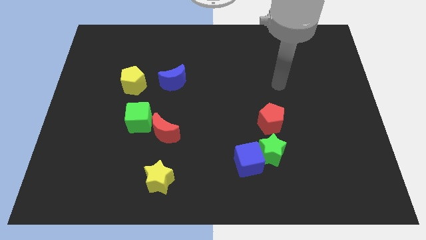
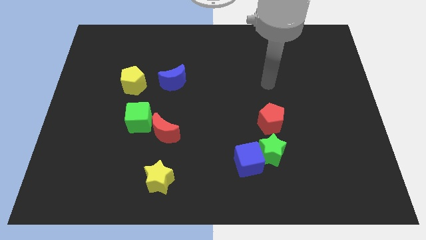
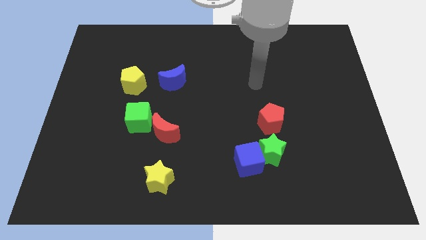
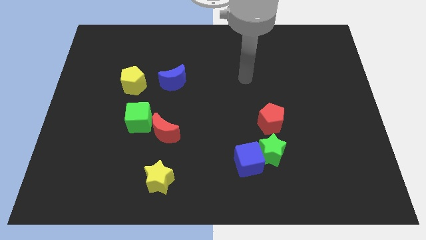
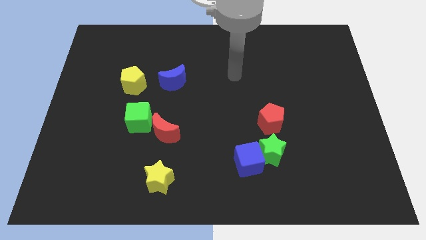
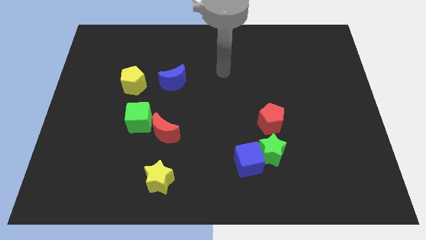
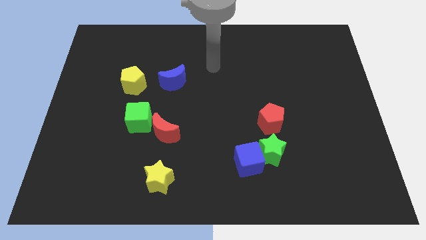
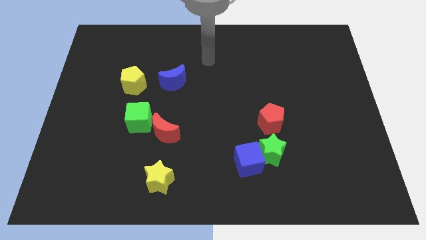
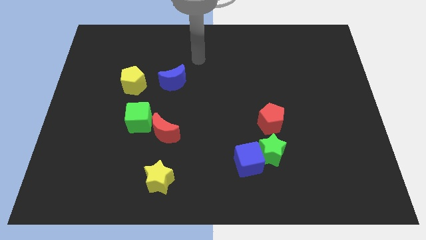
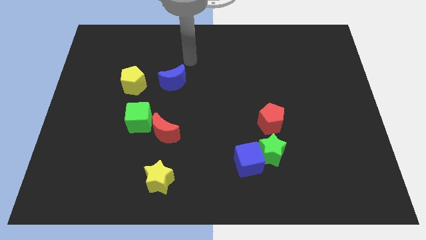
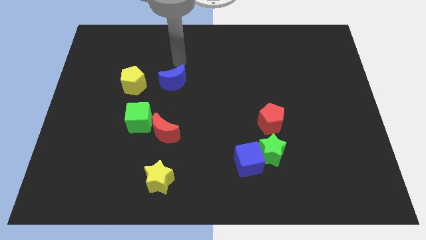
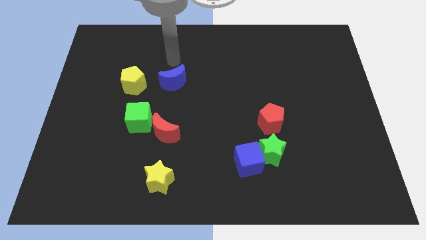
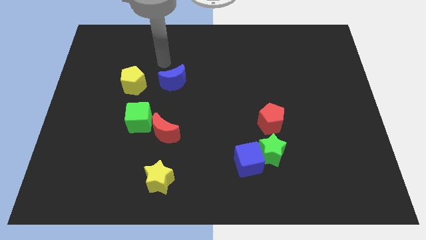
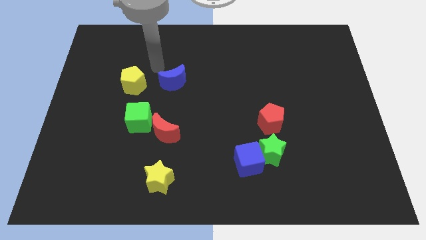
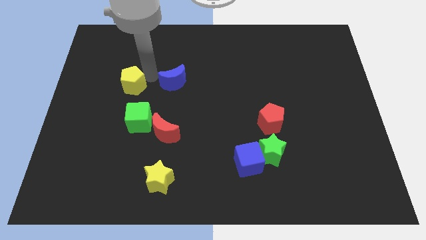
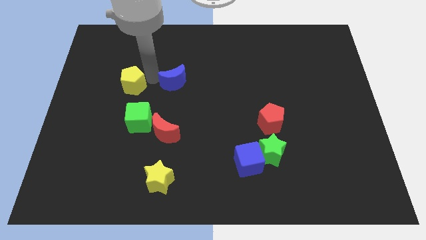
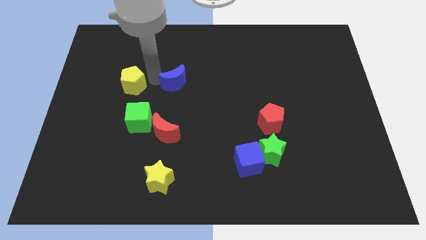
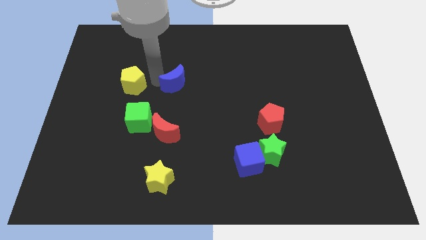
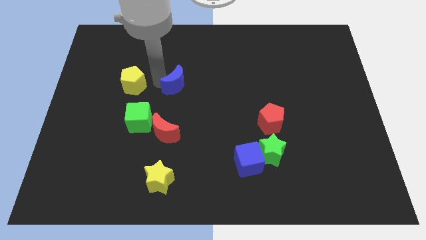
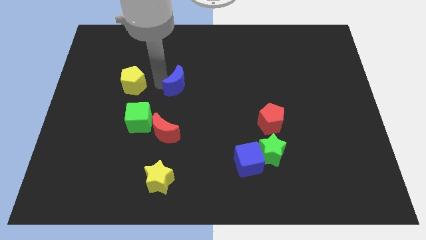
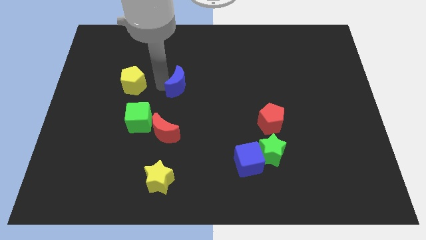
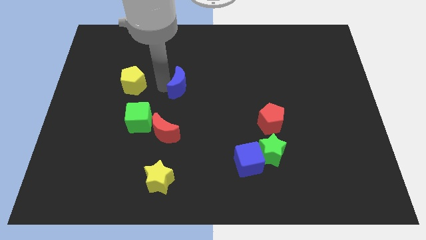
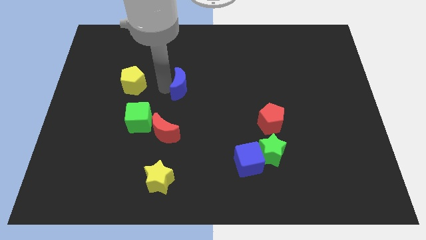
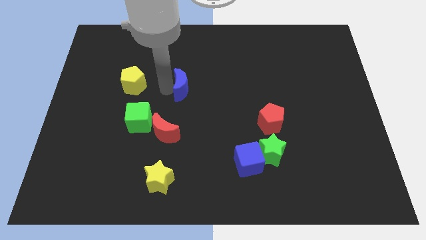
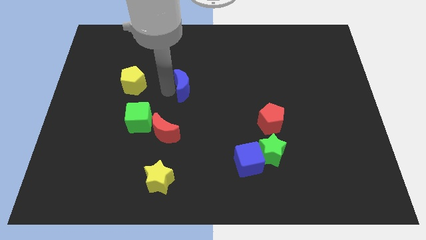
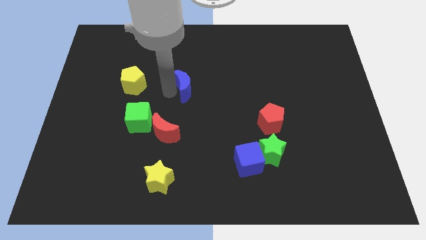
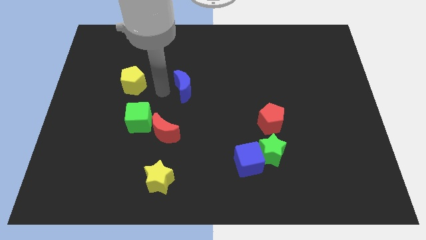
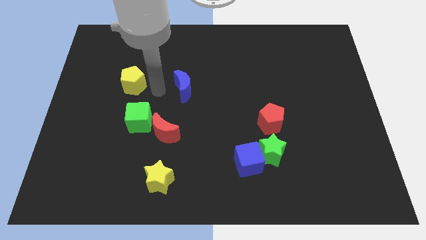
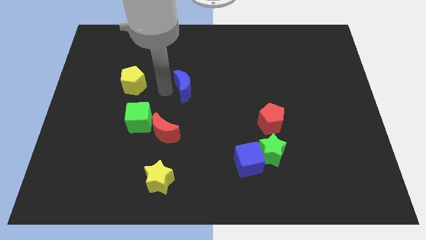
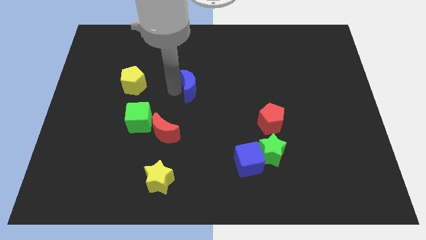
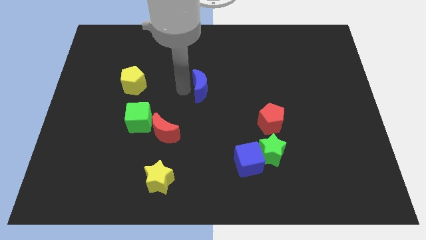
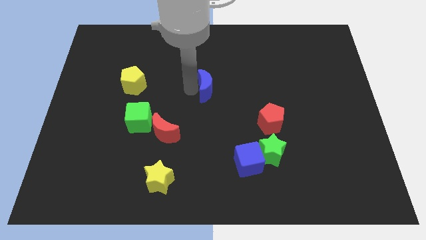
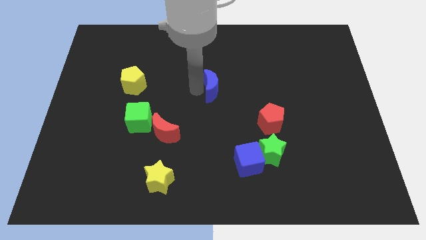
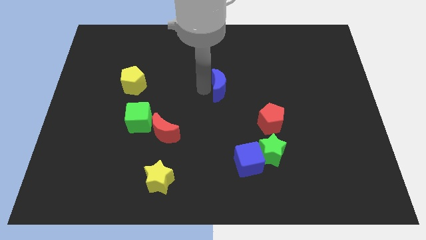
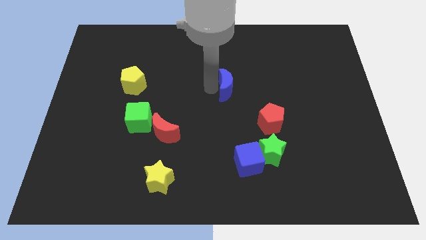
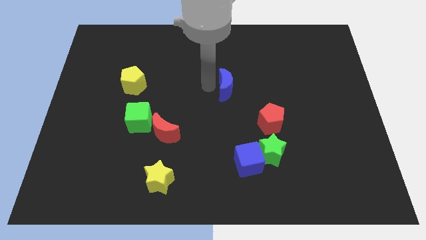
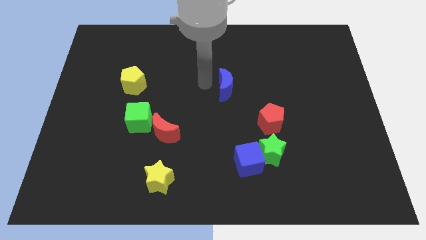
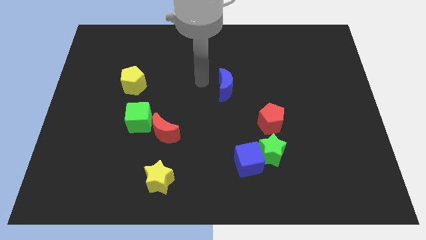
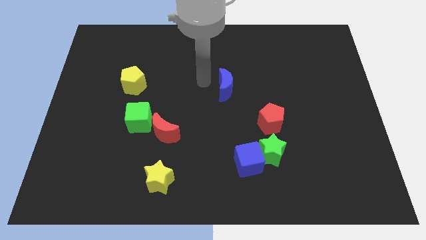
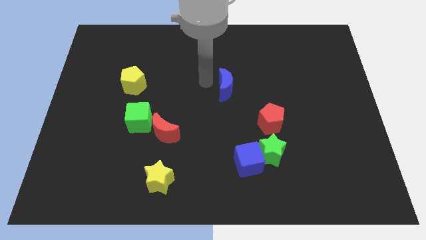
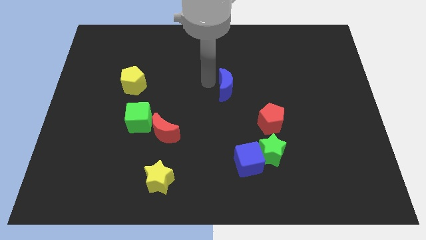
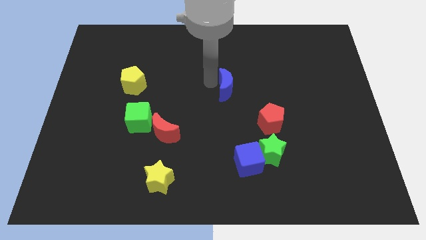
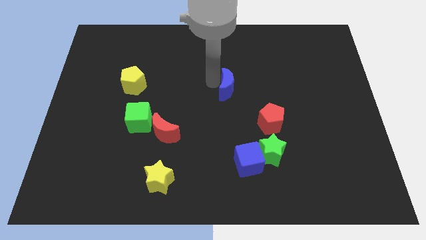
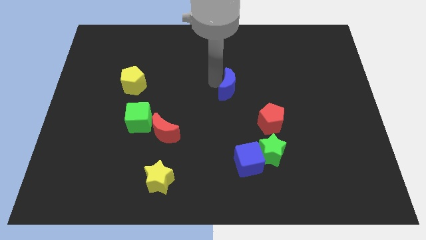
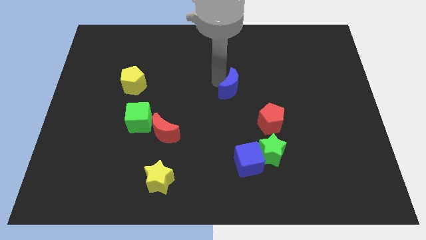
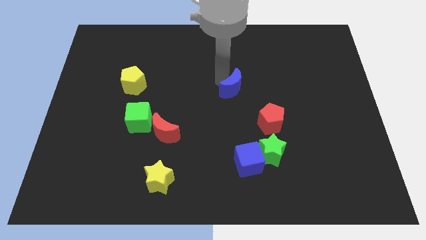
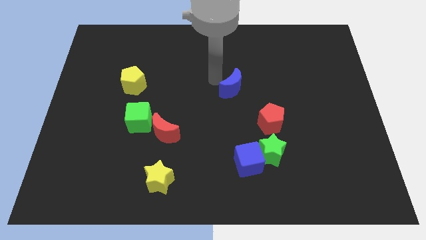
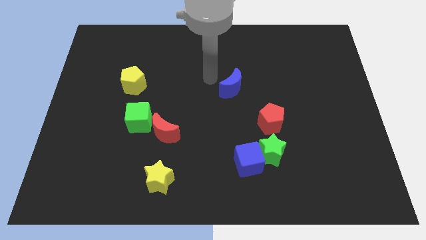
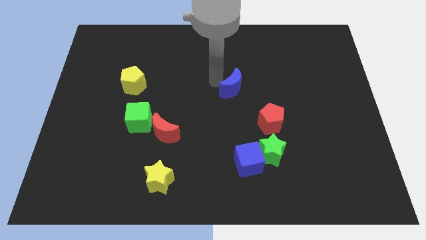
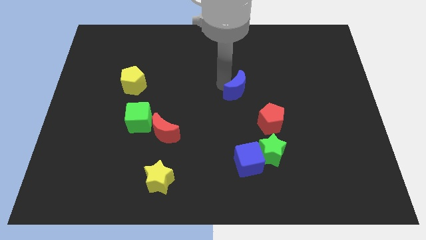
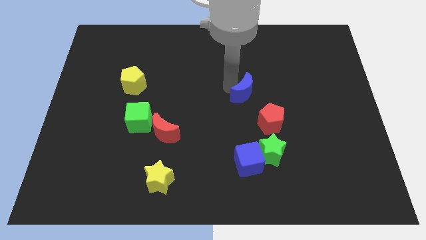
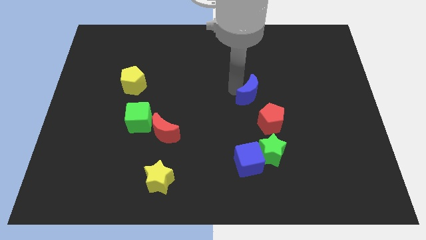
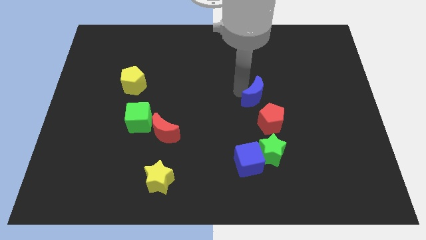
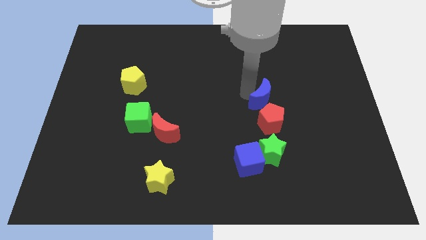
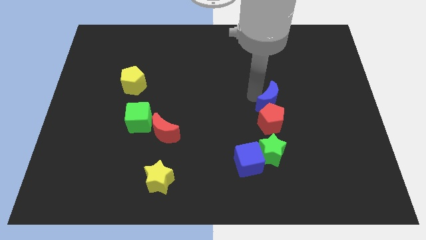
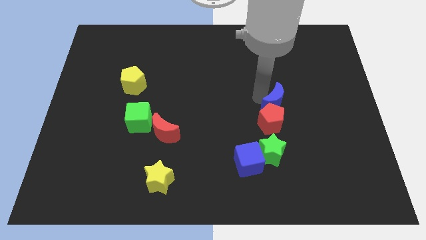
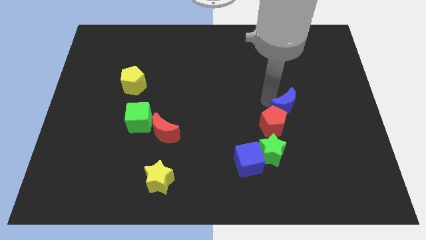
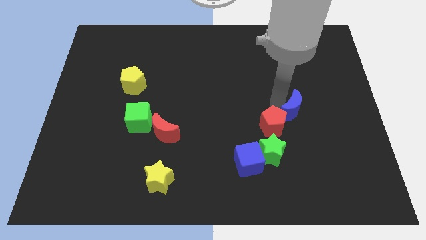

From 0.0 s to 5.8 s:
move the blue moon to the right side of the red pentagon

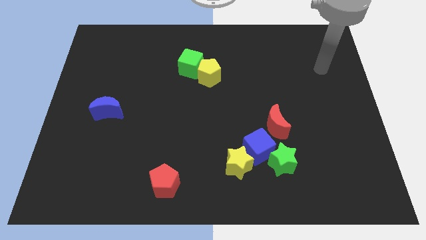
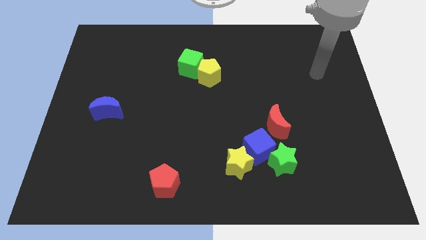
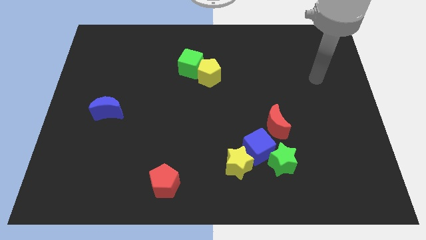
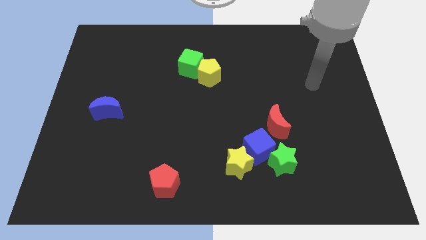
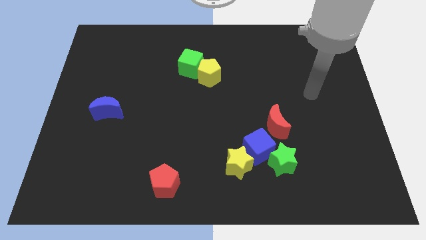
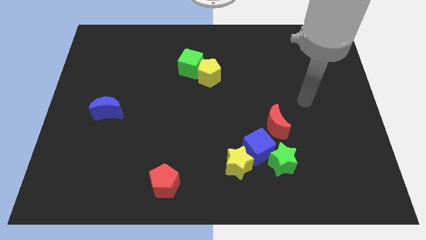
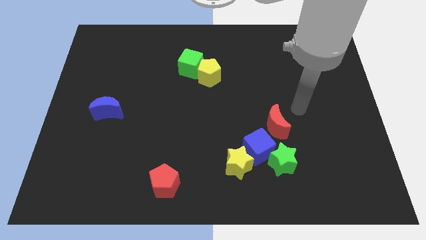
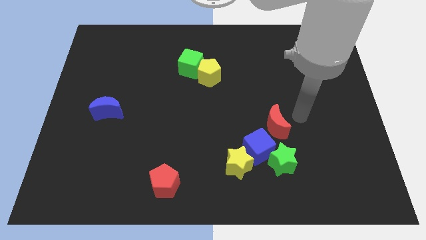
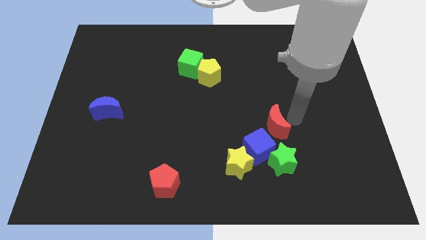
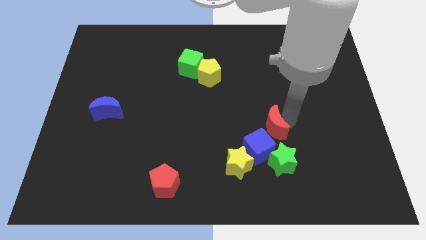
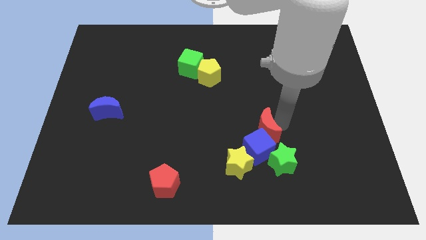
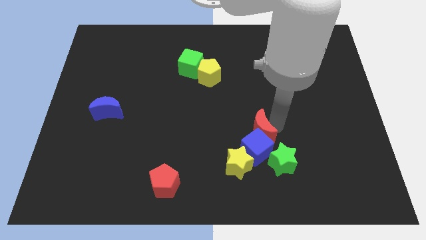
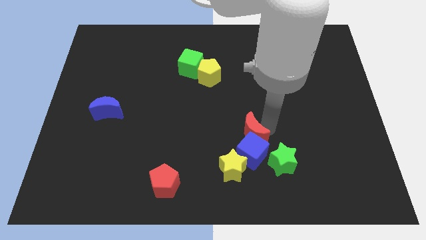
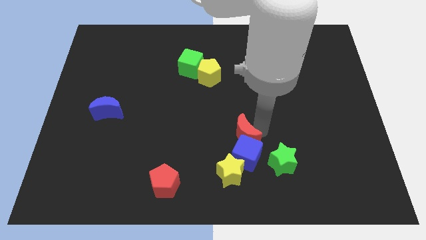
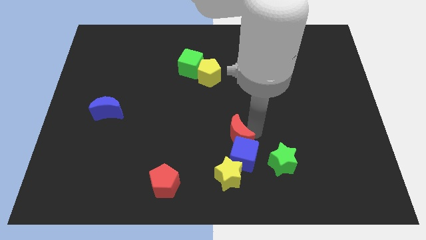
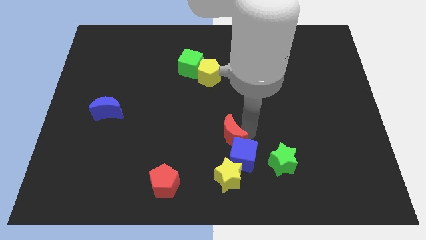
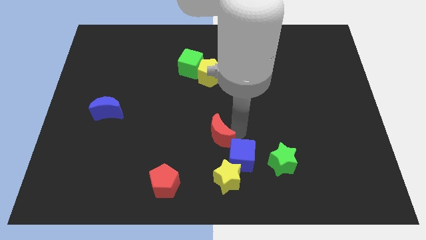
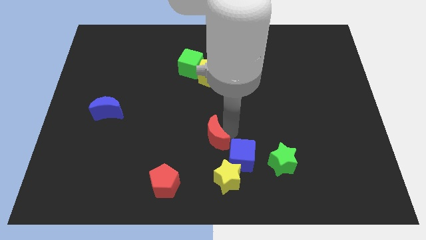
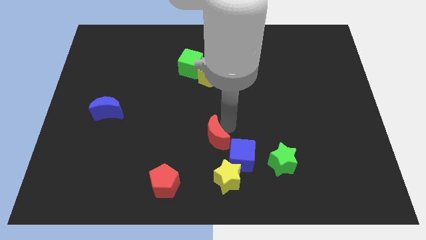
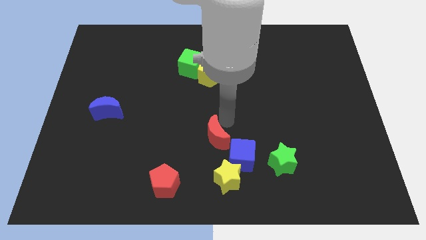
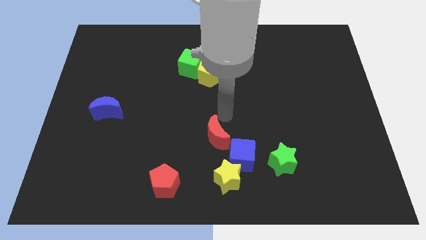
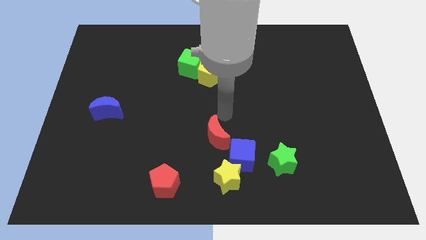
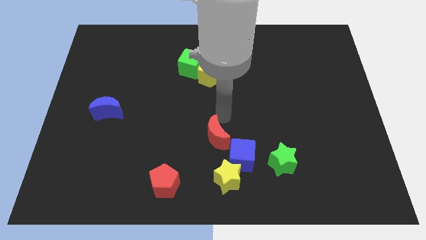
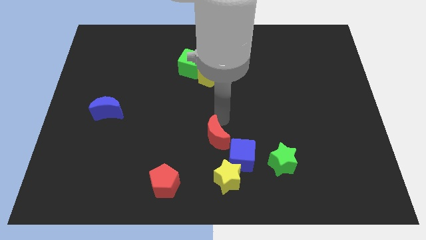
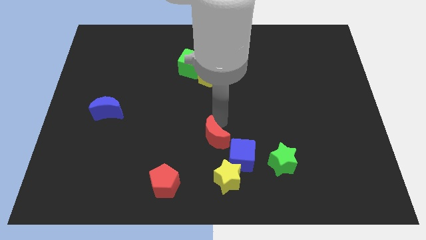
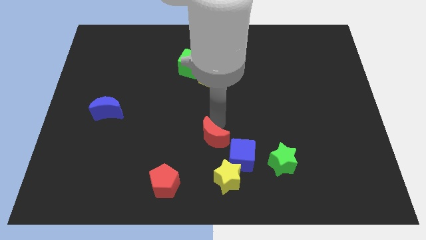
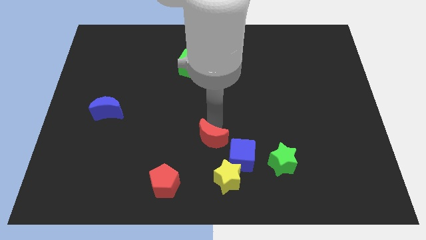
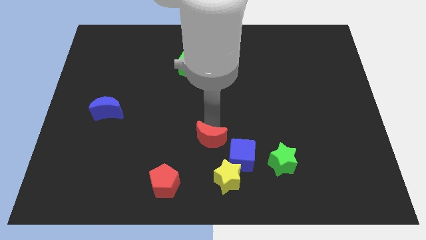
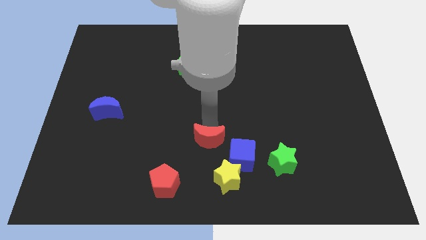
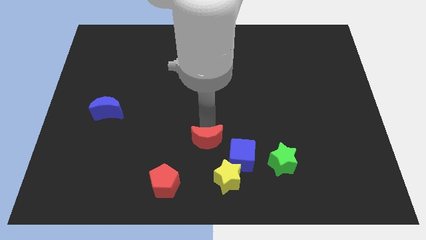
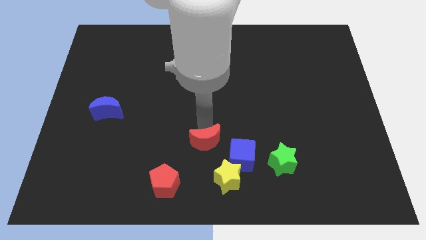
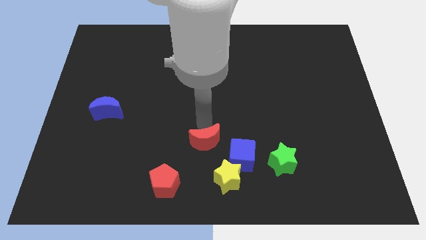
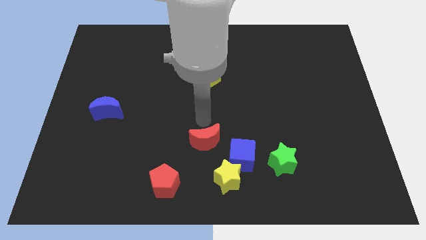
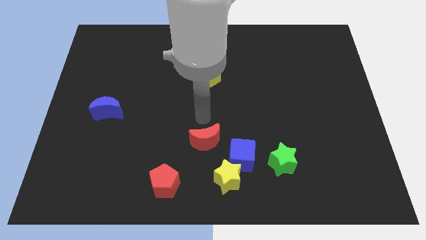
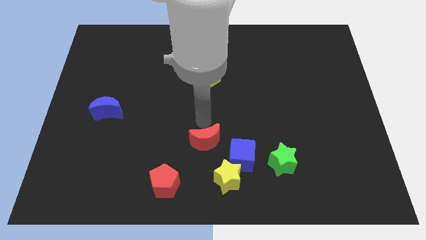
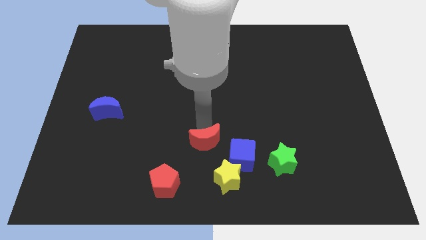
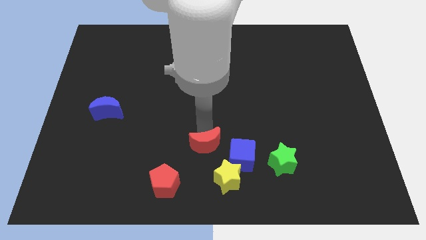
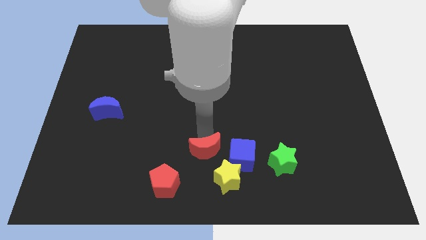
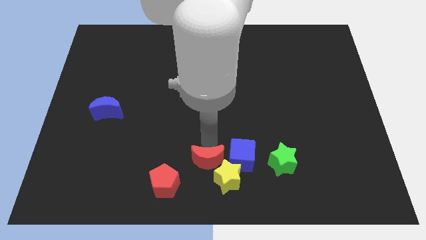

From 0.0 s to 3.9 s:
move the red moon to the left of the yellow star
